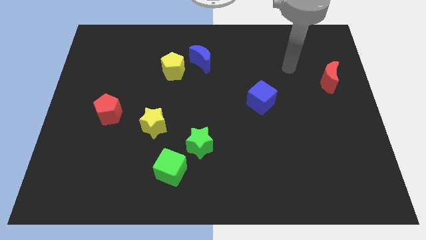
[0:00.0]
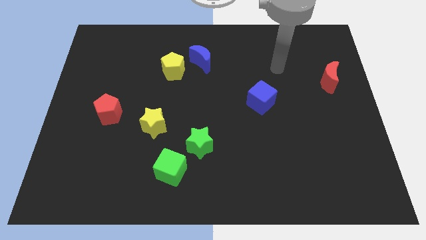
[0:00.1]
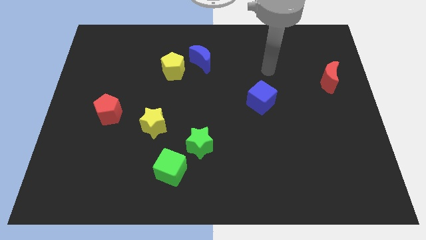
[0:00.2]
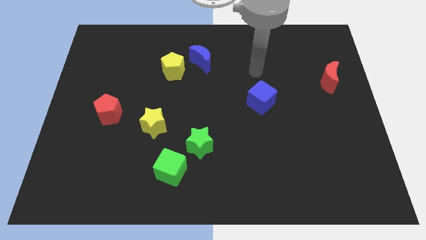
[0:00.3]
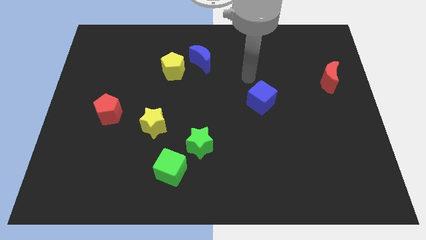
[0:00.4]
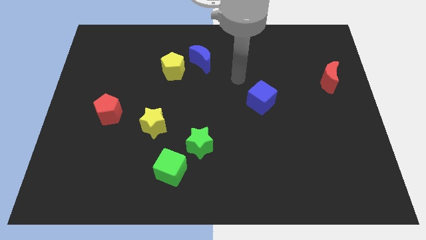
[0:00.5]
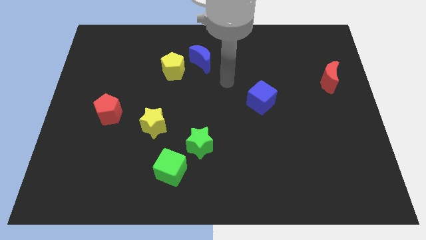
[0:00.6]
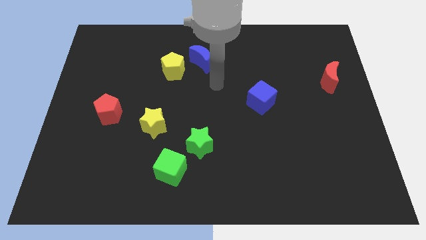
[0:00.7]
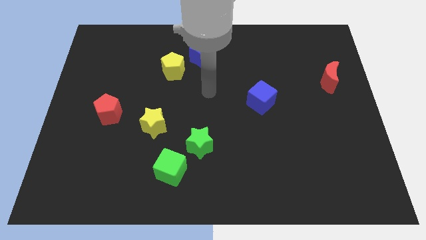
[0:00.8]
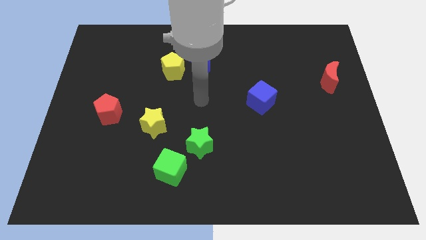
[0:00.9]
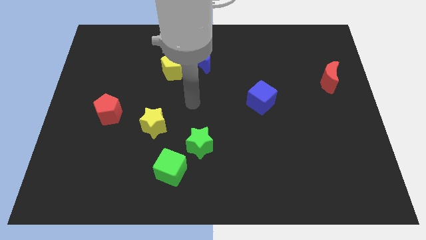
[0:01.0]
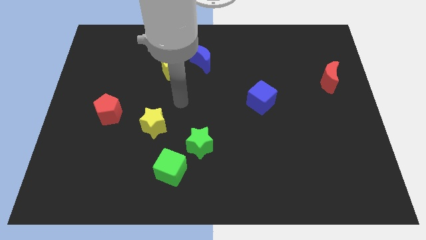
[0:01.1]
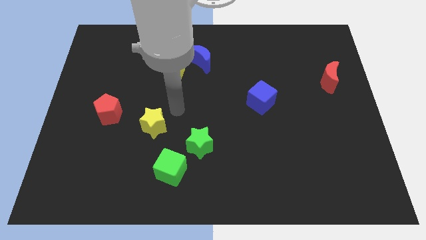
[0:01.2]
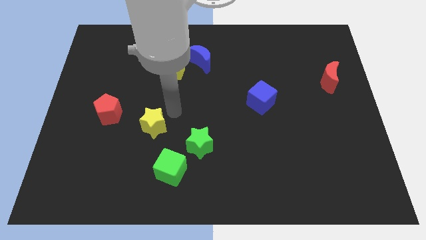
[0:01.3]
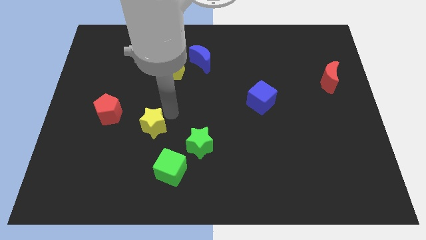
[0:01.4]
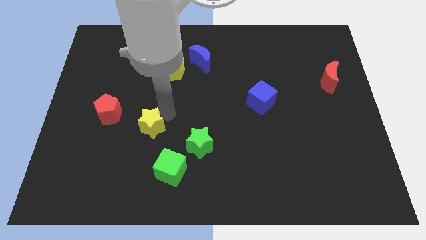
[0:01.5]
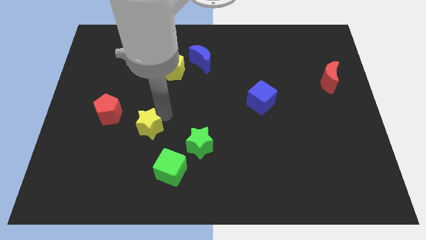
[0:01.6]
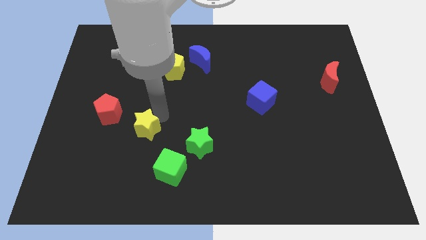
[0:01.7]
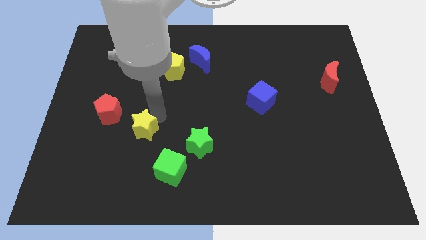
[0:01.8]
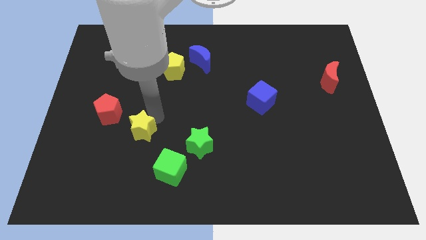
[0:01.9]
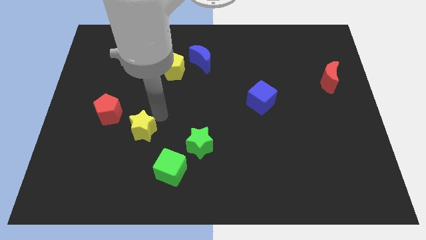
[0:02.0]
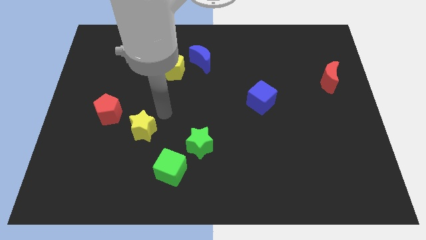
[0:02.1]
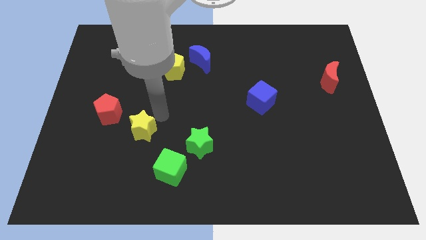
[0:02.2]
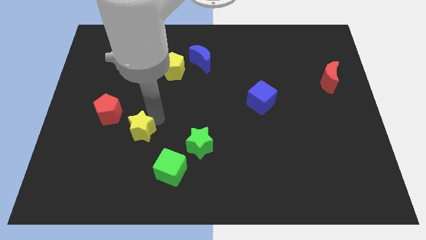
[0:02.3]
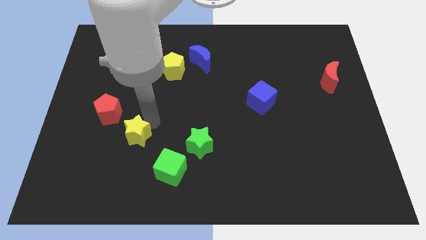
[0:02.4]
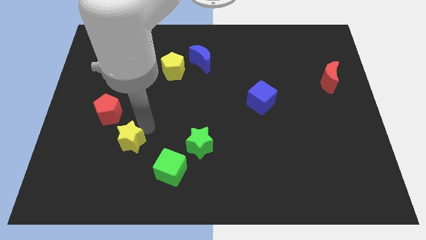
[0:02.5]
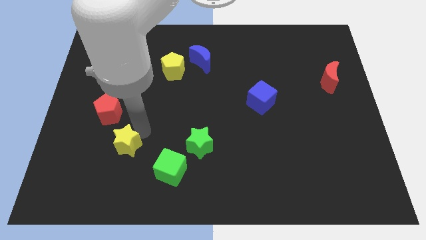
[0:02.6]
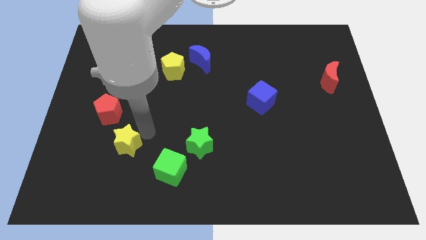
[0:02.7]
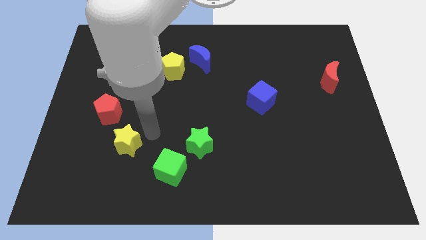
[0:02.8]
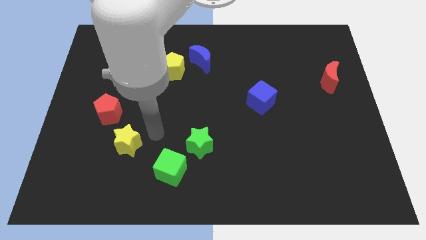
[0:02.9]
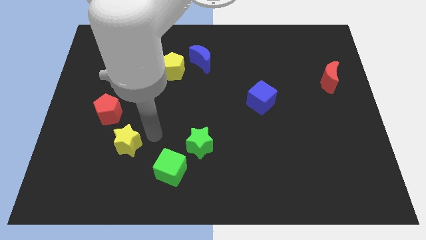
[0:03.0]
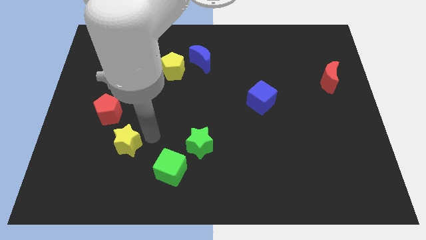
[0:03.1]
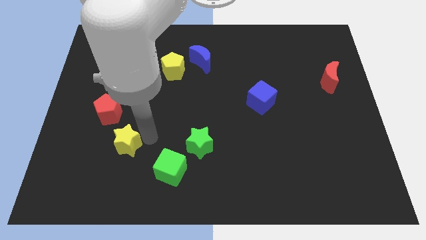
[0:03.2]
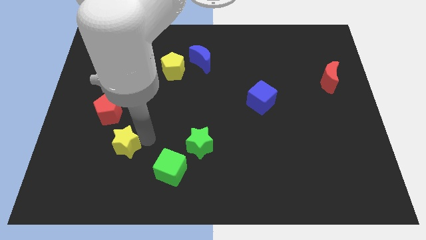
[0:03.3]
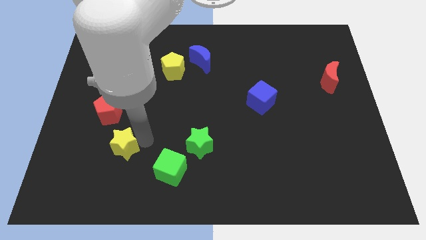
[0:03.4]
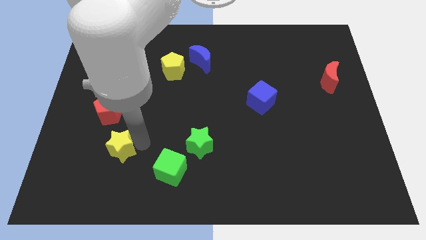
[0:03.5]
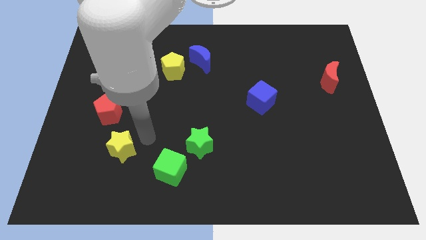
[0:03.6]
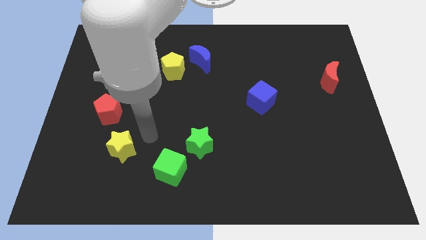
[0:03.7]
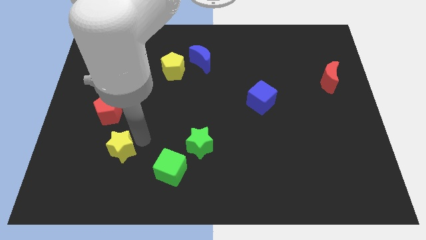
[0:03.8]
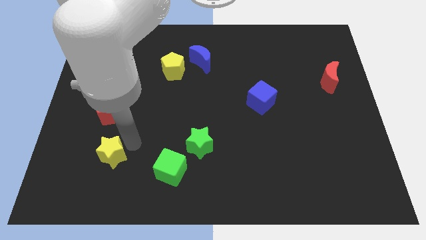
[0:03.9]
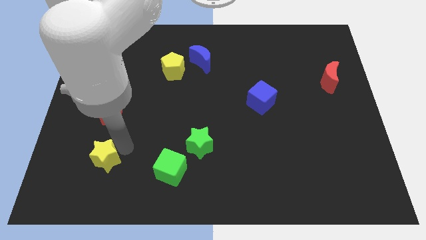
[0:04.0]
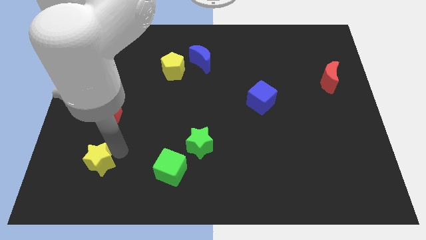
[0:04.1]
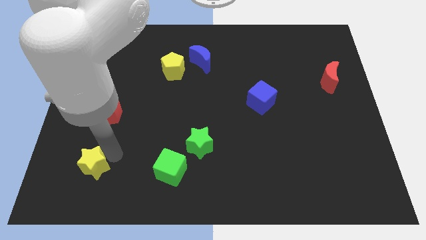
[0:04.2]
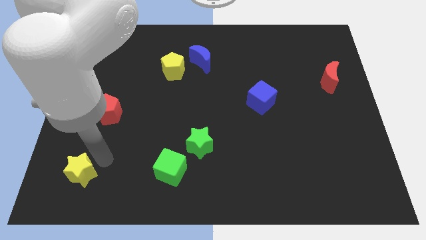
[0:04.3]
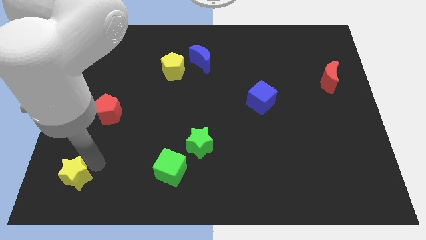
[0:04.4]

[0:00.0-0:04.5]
put the yellow star to the bottom left corner

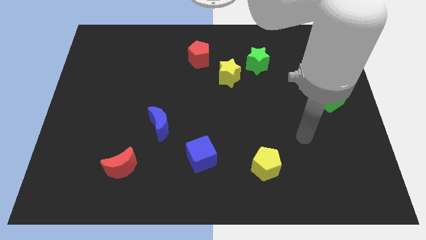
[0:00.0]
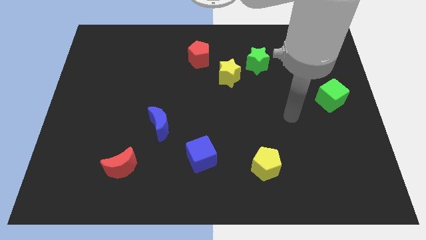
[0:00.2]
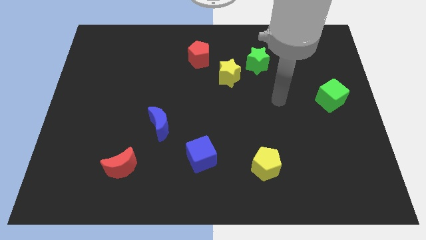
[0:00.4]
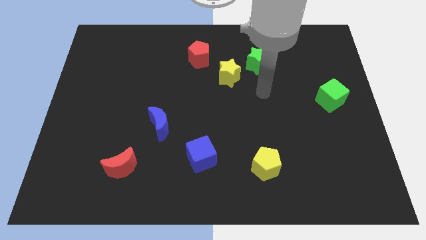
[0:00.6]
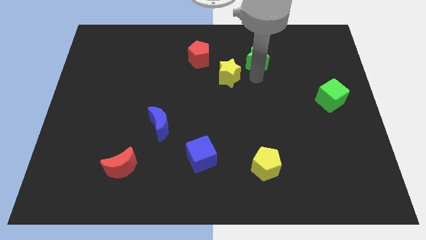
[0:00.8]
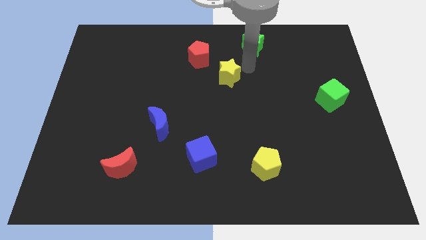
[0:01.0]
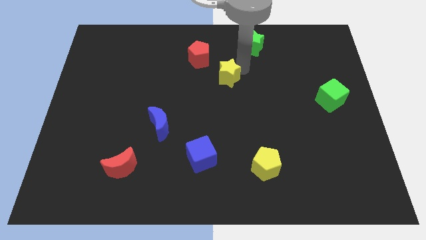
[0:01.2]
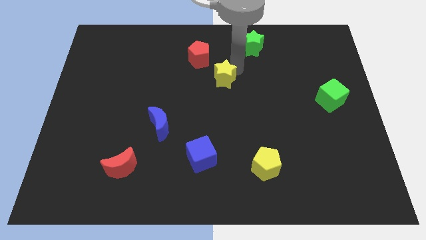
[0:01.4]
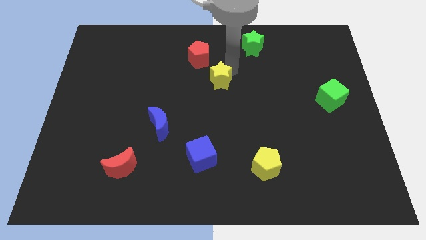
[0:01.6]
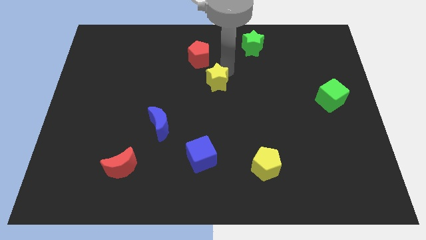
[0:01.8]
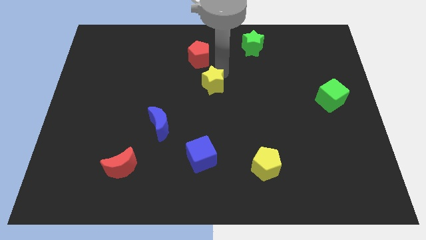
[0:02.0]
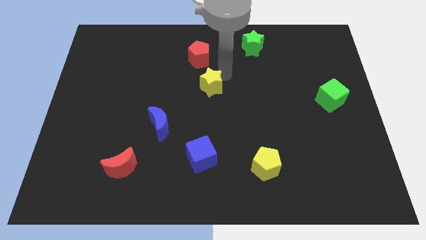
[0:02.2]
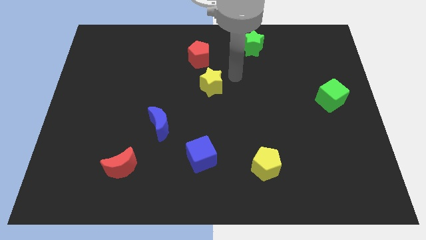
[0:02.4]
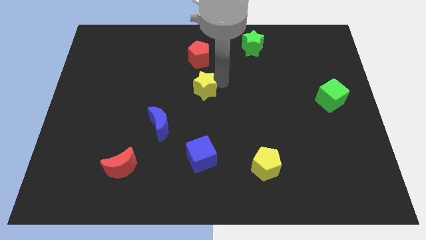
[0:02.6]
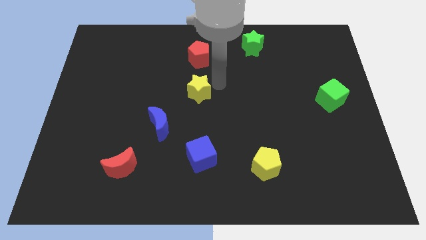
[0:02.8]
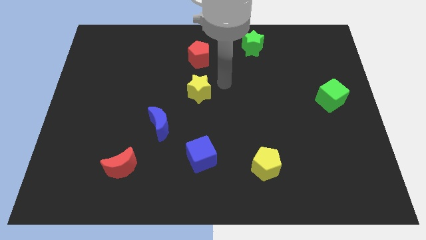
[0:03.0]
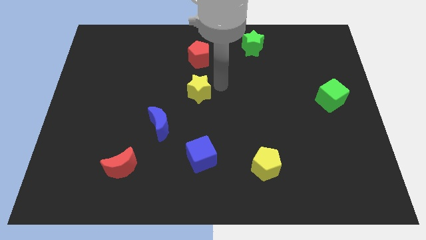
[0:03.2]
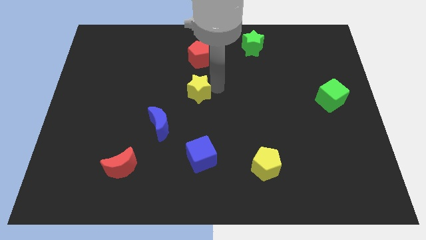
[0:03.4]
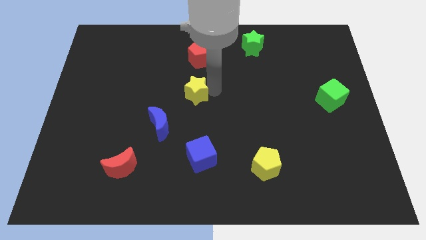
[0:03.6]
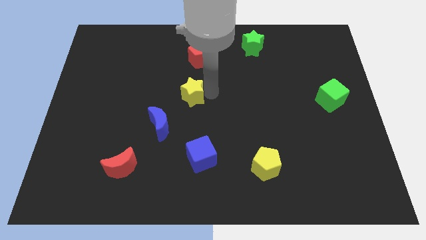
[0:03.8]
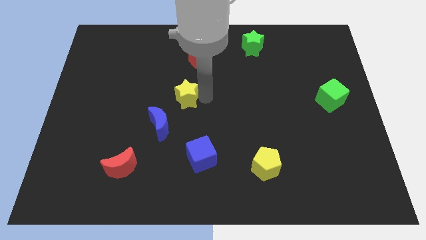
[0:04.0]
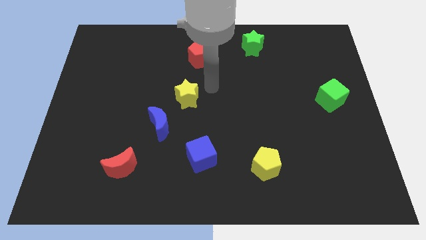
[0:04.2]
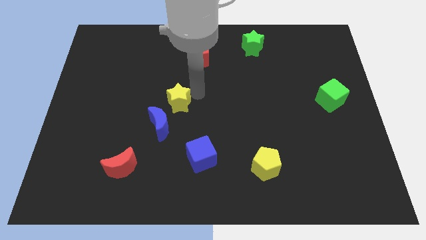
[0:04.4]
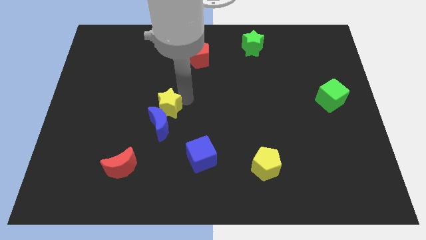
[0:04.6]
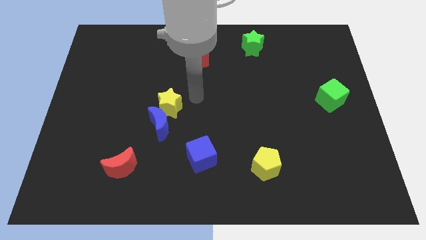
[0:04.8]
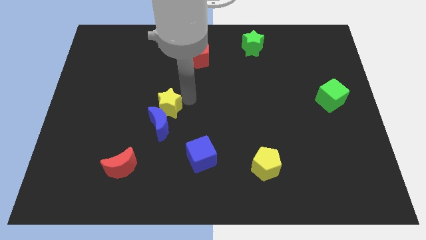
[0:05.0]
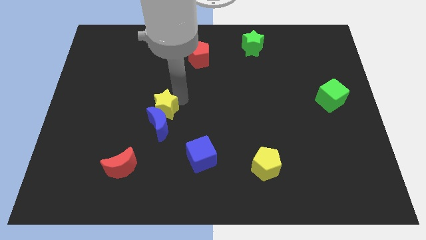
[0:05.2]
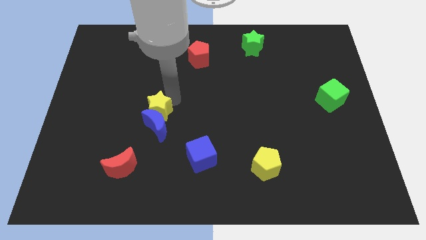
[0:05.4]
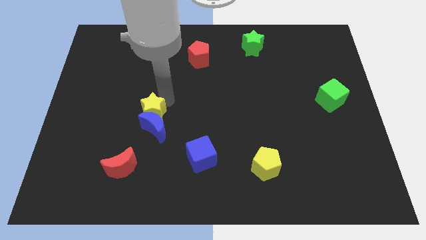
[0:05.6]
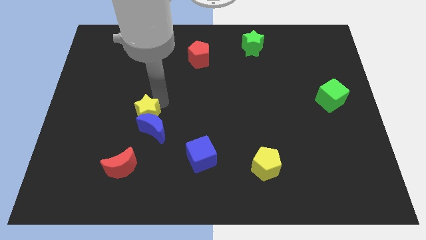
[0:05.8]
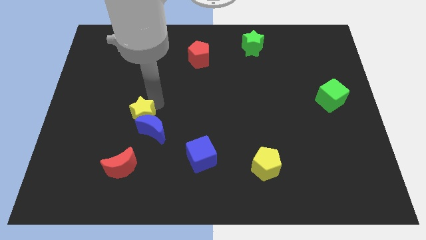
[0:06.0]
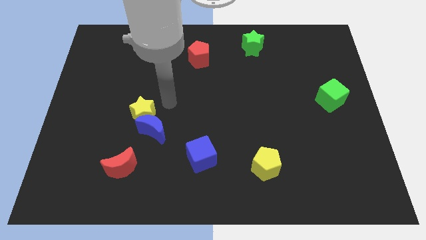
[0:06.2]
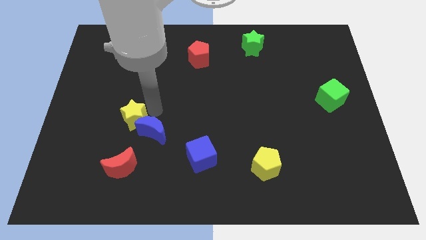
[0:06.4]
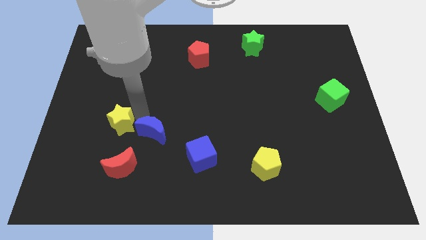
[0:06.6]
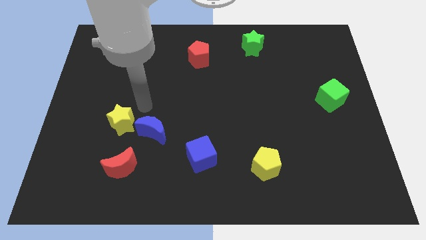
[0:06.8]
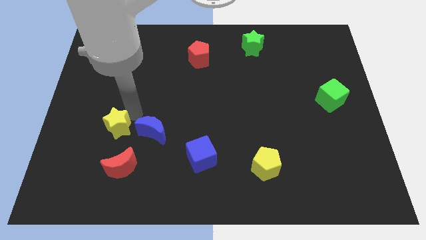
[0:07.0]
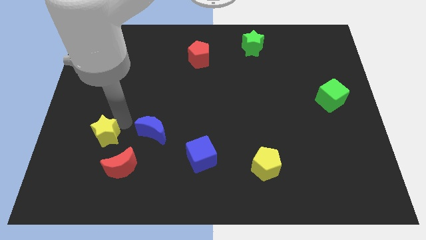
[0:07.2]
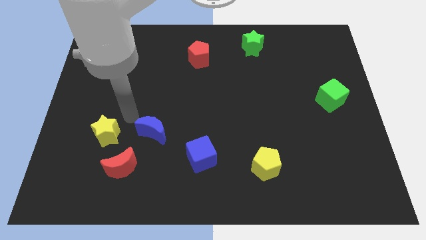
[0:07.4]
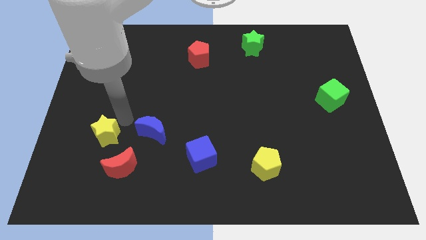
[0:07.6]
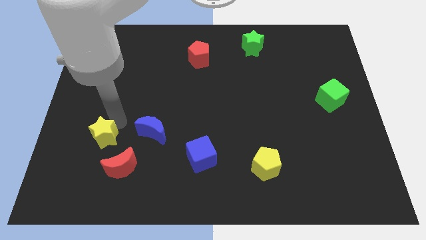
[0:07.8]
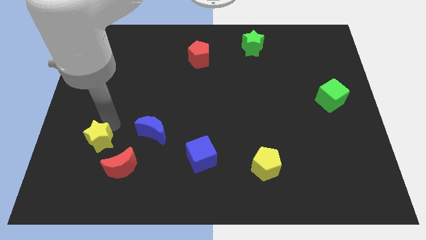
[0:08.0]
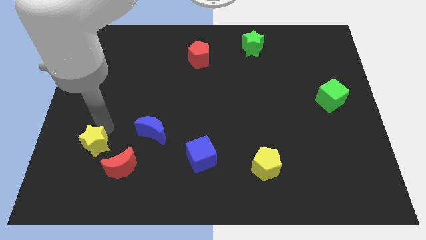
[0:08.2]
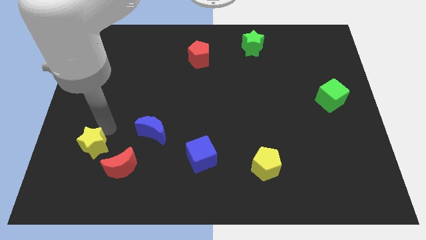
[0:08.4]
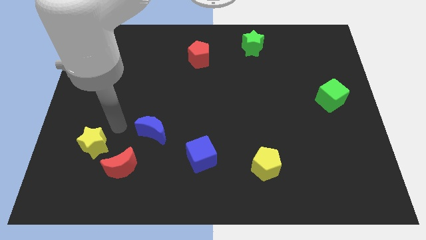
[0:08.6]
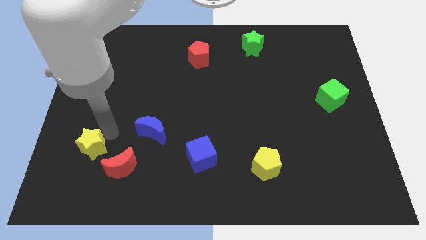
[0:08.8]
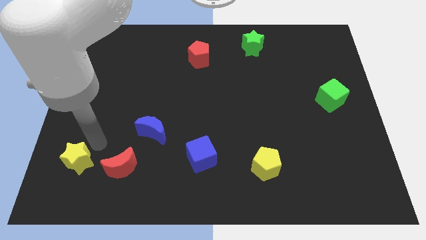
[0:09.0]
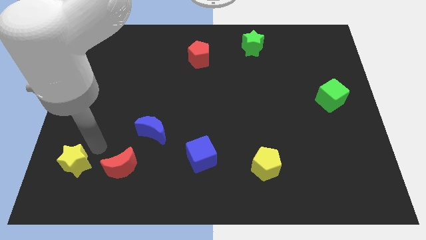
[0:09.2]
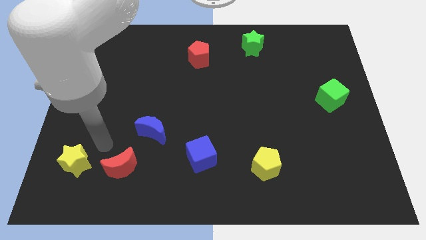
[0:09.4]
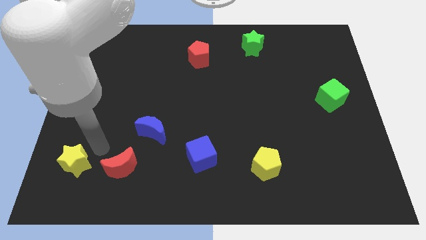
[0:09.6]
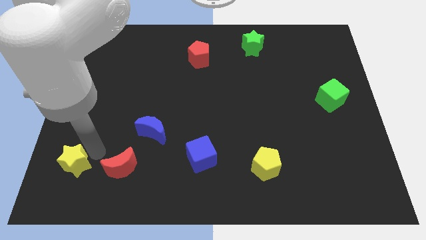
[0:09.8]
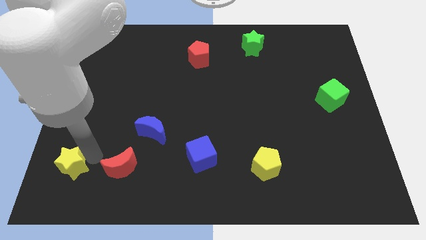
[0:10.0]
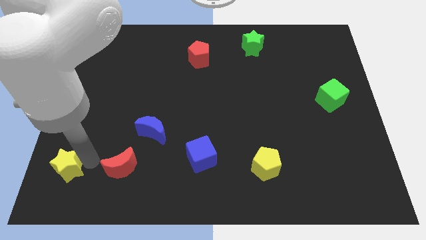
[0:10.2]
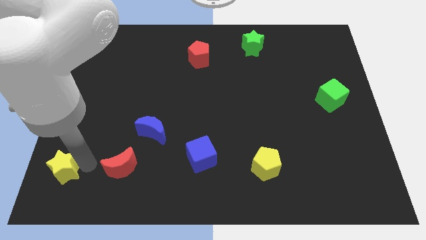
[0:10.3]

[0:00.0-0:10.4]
slide the yellow star to the bottom left
